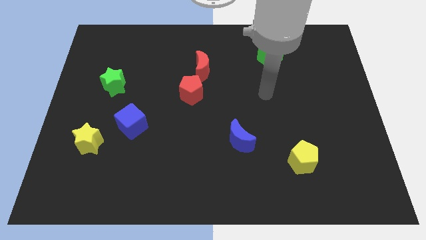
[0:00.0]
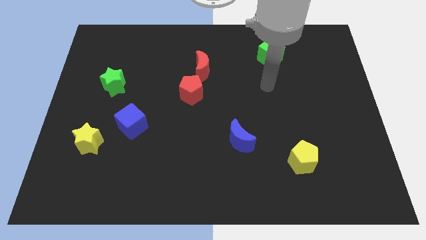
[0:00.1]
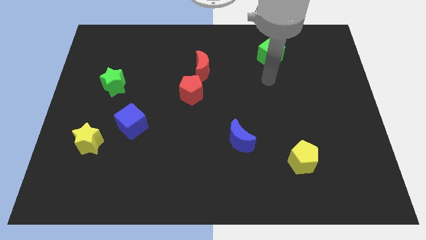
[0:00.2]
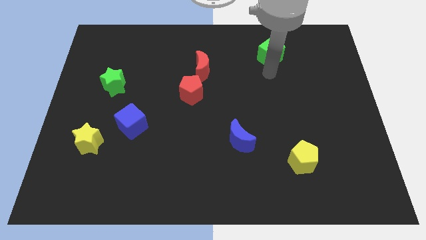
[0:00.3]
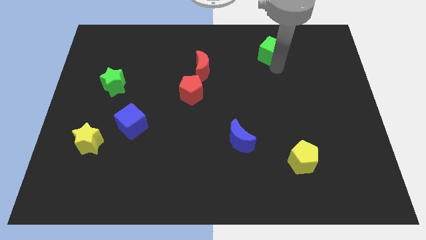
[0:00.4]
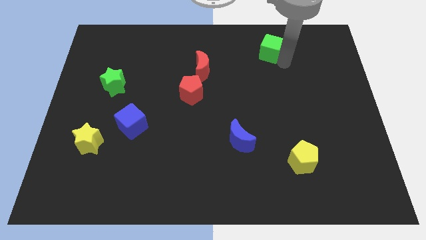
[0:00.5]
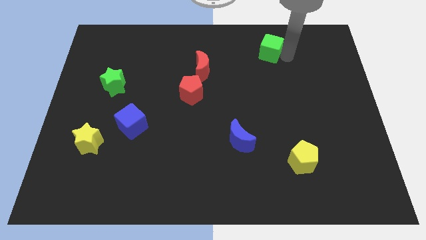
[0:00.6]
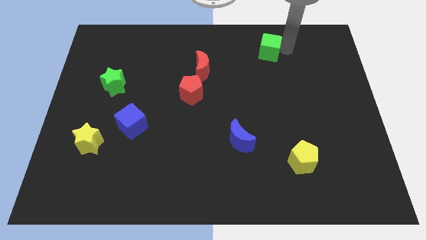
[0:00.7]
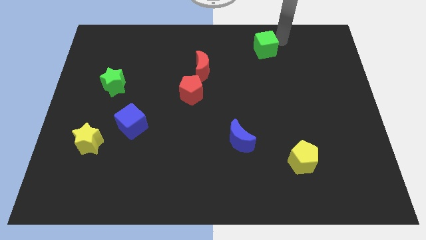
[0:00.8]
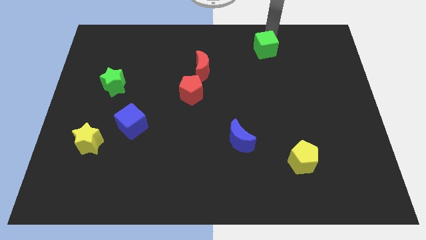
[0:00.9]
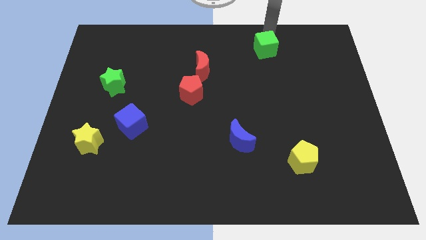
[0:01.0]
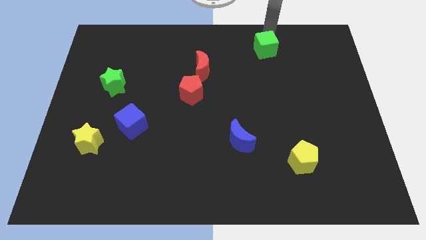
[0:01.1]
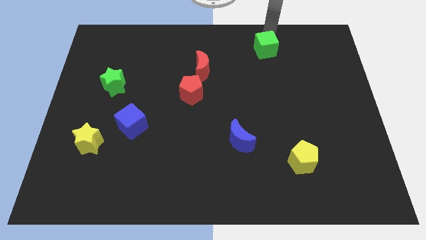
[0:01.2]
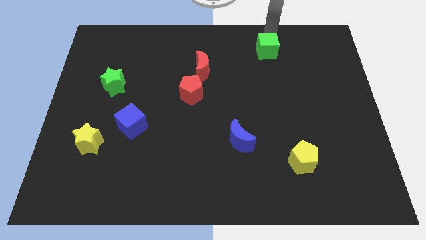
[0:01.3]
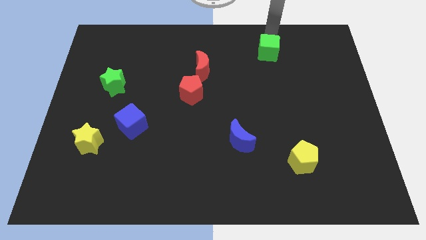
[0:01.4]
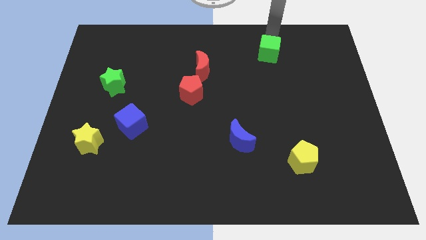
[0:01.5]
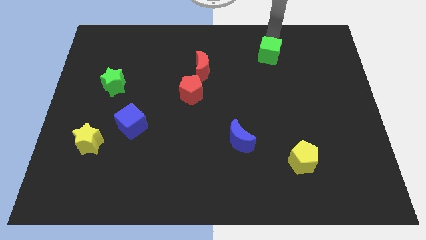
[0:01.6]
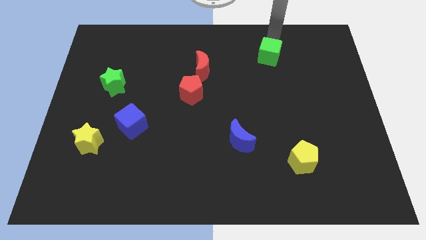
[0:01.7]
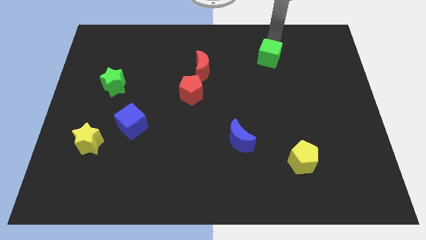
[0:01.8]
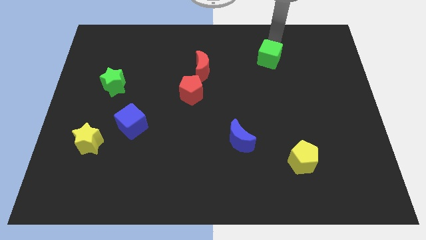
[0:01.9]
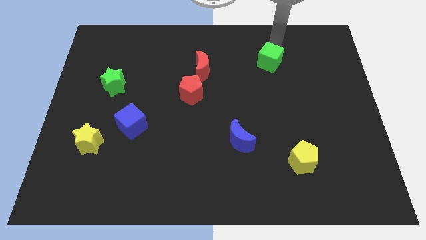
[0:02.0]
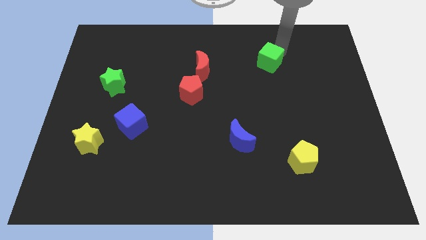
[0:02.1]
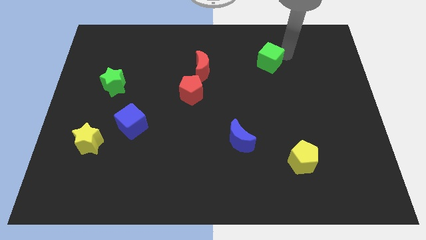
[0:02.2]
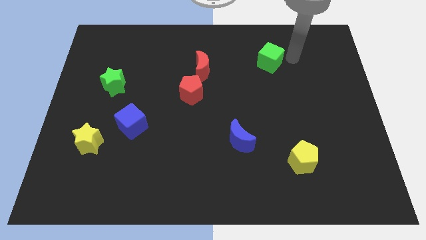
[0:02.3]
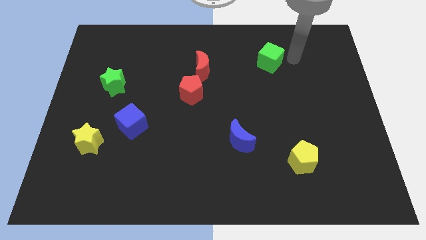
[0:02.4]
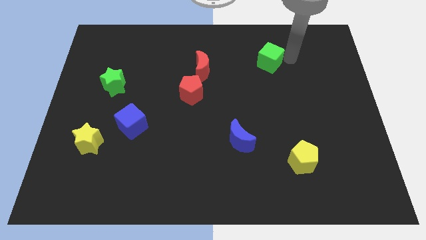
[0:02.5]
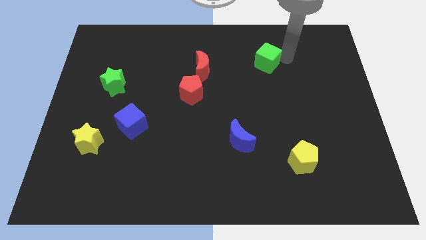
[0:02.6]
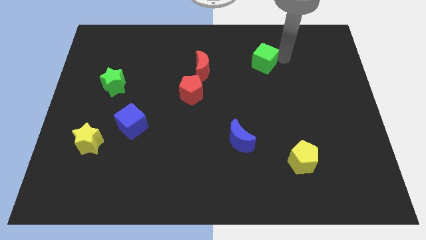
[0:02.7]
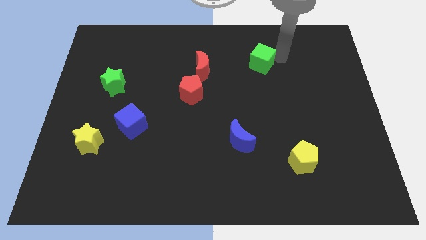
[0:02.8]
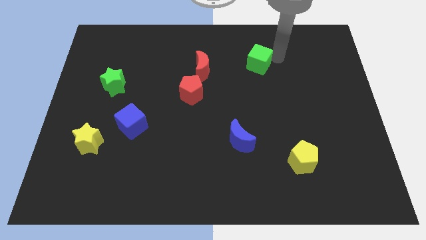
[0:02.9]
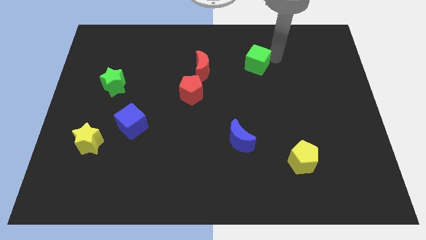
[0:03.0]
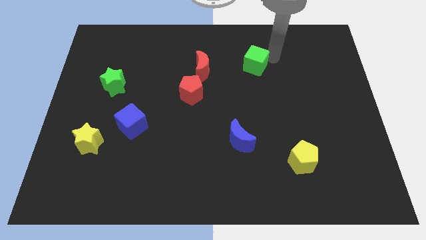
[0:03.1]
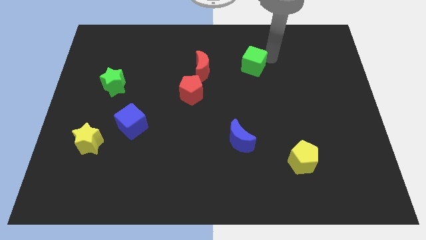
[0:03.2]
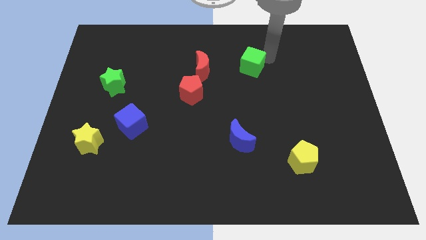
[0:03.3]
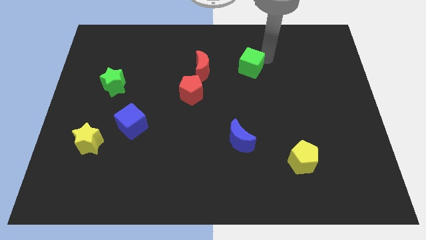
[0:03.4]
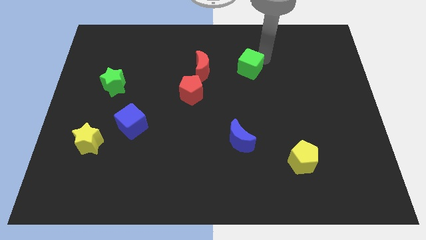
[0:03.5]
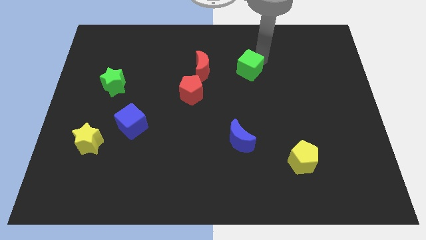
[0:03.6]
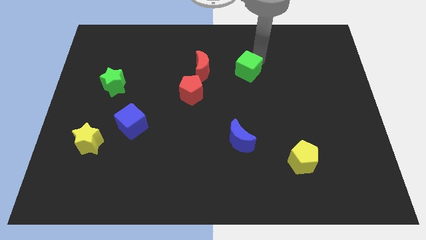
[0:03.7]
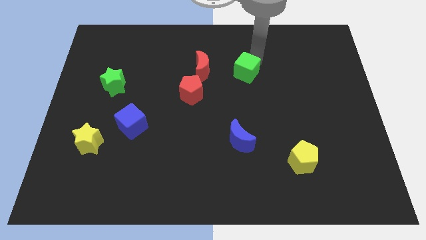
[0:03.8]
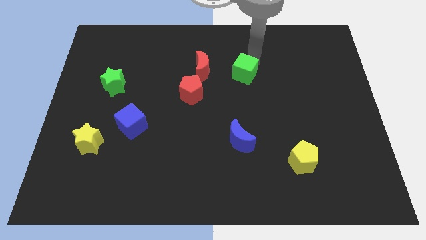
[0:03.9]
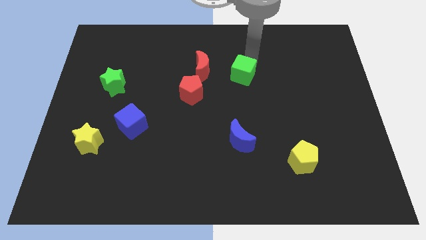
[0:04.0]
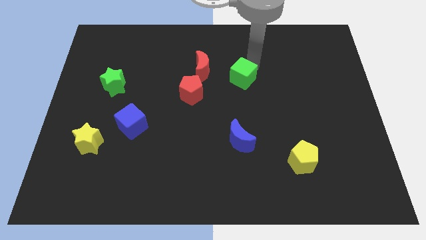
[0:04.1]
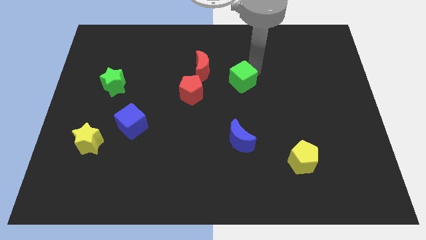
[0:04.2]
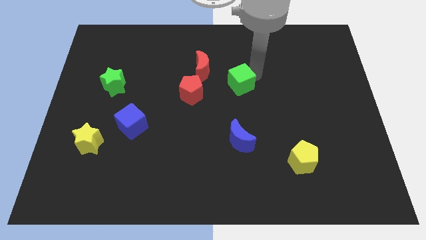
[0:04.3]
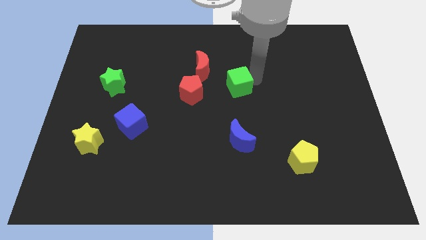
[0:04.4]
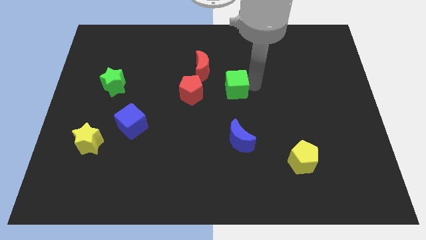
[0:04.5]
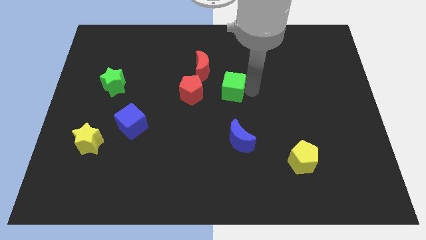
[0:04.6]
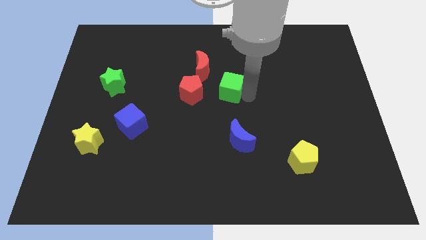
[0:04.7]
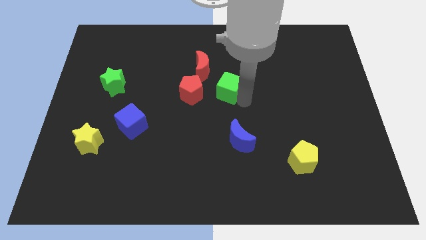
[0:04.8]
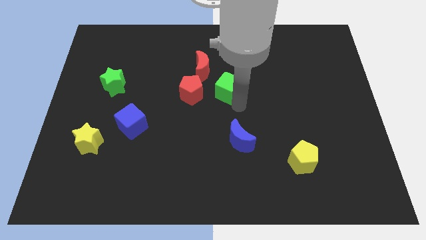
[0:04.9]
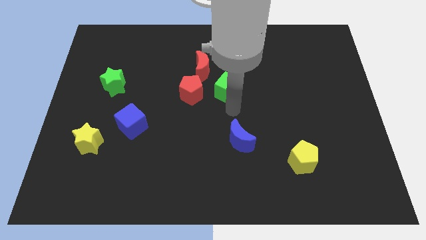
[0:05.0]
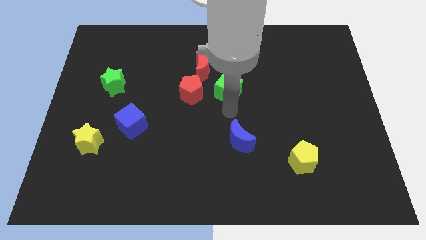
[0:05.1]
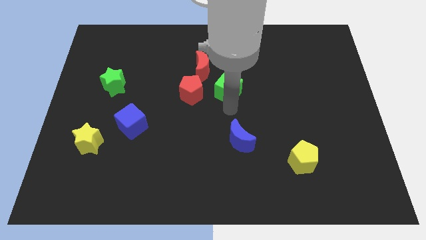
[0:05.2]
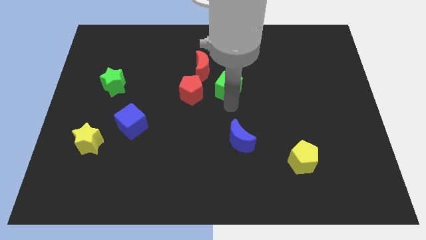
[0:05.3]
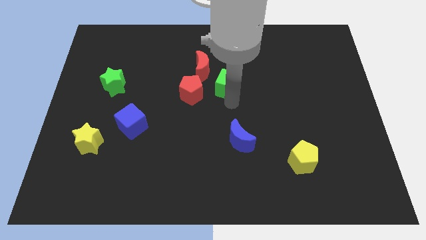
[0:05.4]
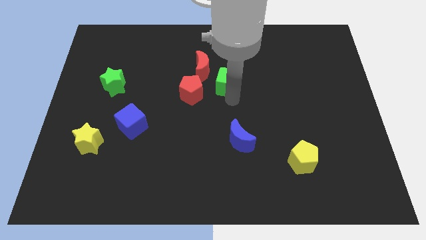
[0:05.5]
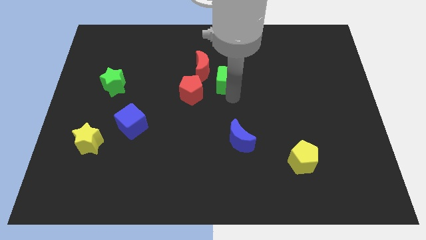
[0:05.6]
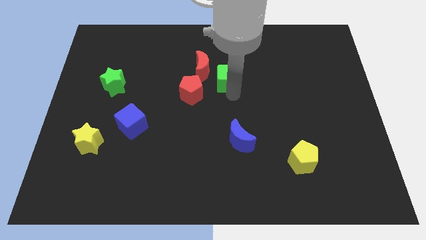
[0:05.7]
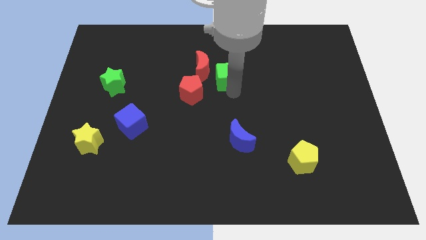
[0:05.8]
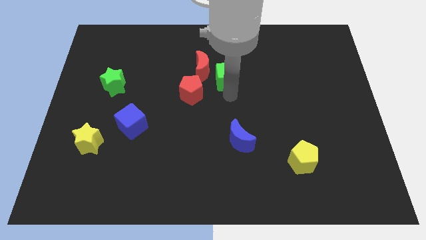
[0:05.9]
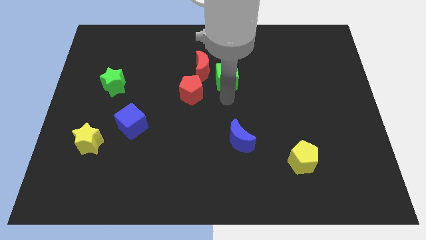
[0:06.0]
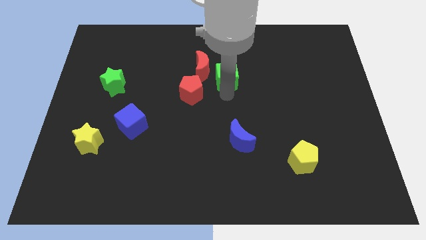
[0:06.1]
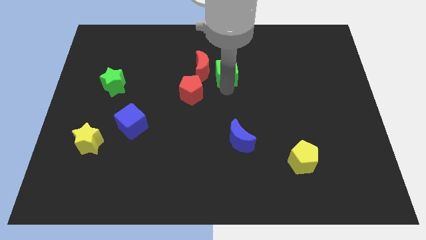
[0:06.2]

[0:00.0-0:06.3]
move the green cube close to the red moon

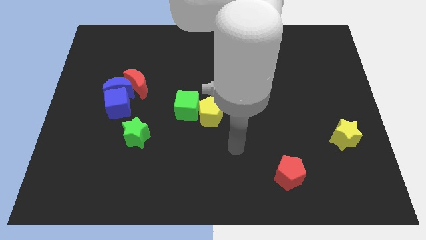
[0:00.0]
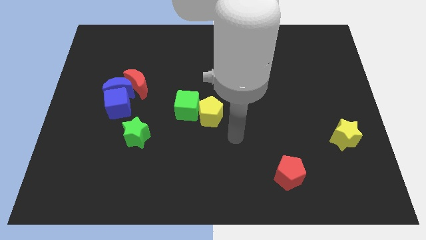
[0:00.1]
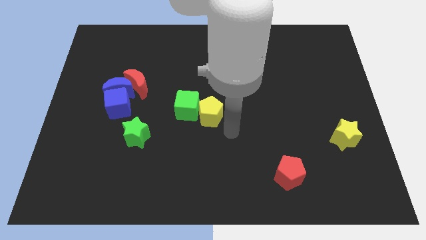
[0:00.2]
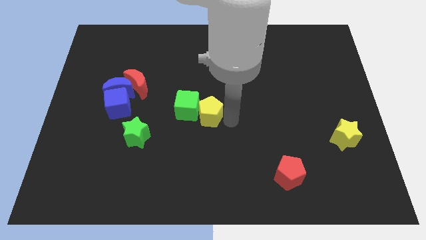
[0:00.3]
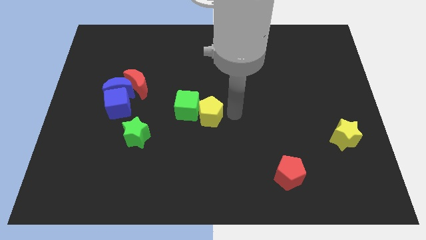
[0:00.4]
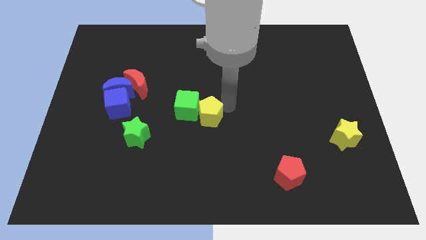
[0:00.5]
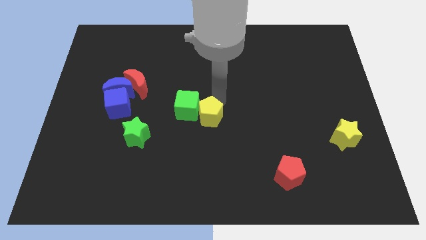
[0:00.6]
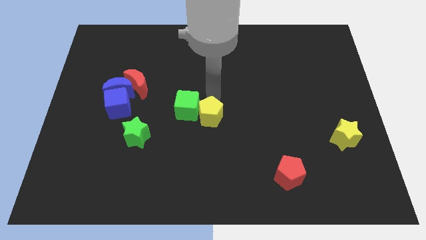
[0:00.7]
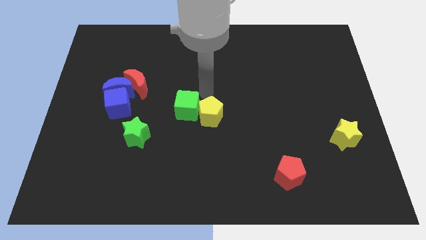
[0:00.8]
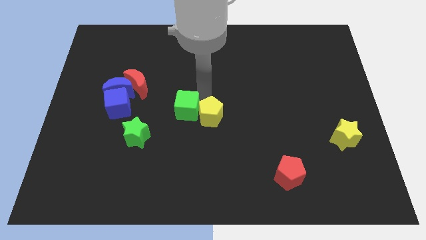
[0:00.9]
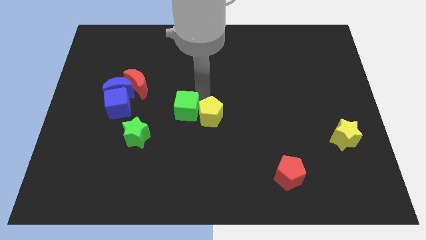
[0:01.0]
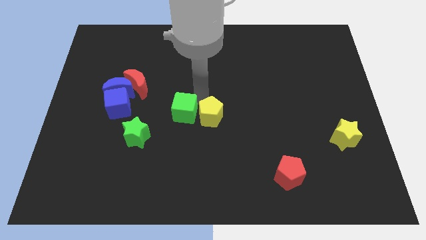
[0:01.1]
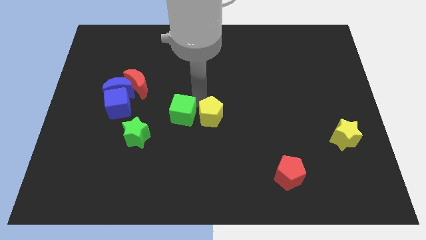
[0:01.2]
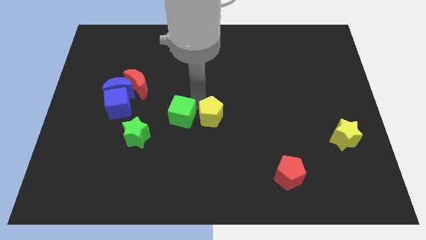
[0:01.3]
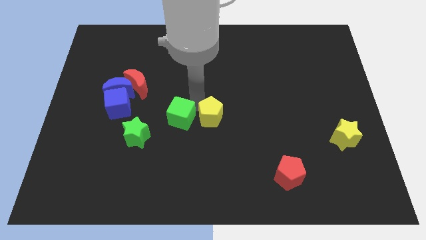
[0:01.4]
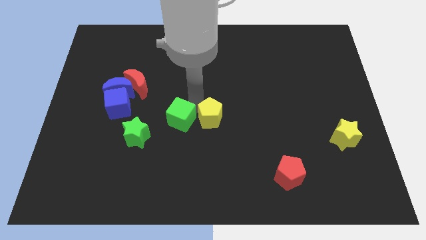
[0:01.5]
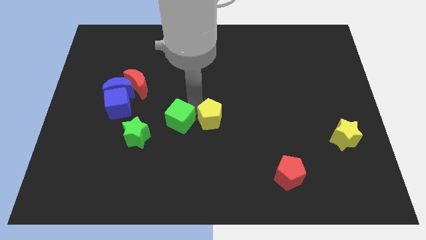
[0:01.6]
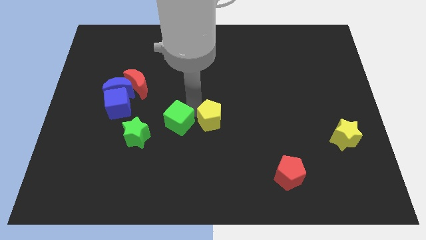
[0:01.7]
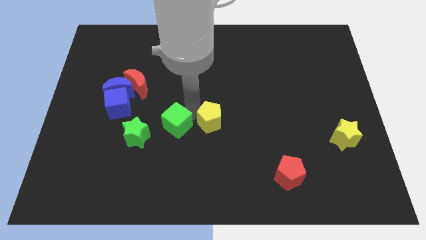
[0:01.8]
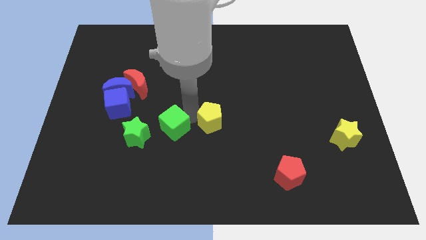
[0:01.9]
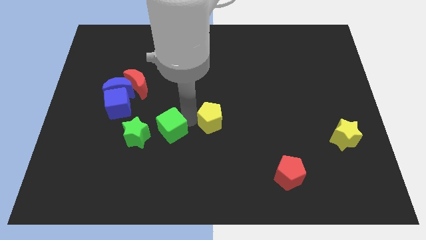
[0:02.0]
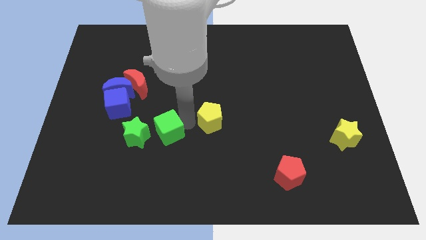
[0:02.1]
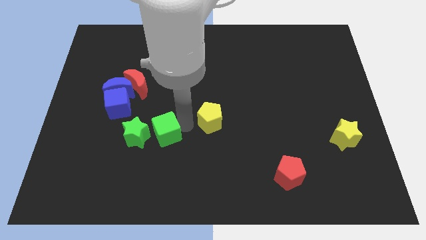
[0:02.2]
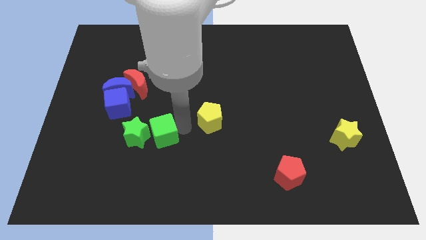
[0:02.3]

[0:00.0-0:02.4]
move the green cube next to the green star
